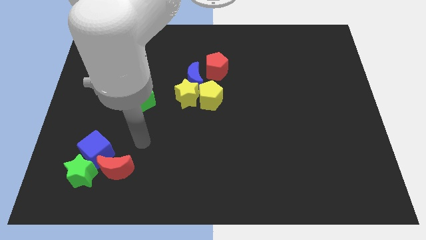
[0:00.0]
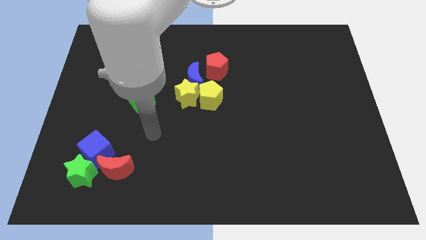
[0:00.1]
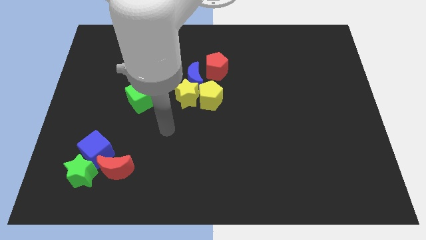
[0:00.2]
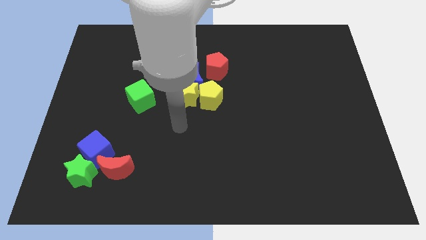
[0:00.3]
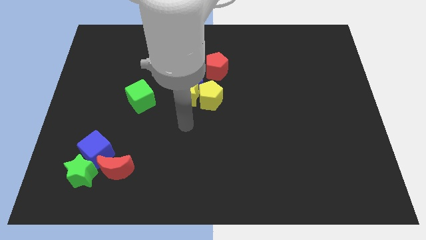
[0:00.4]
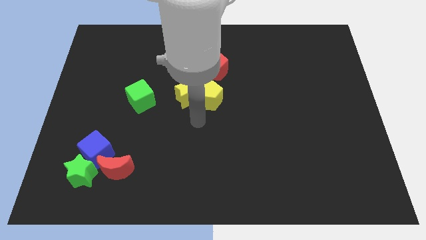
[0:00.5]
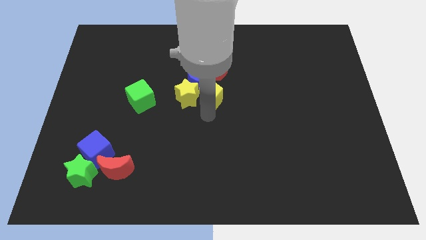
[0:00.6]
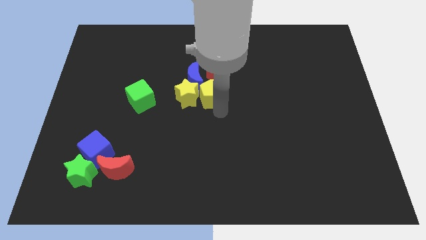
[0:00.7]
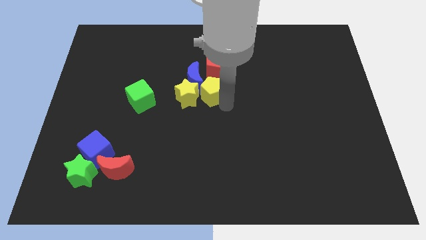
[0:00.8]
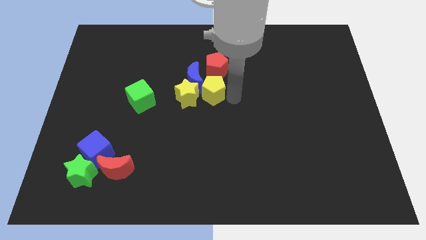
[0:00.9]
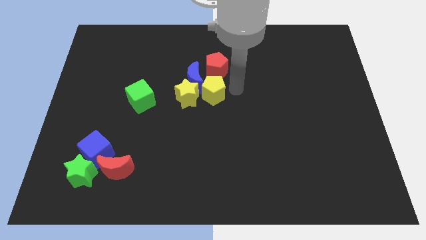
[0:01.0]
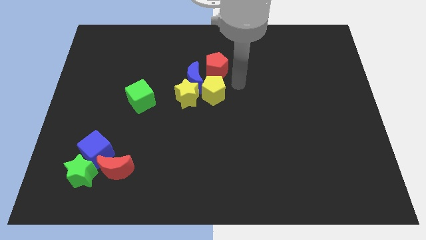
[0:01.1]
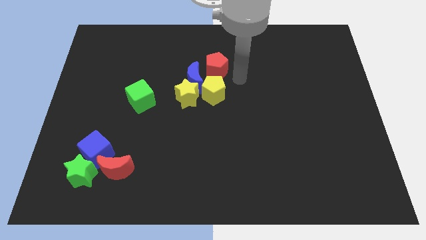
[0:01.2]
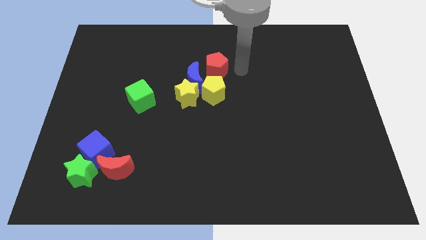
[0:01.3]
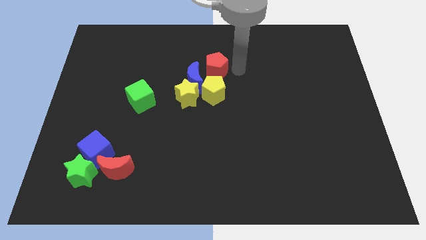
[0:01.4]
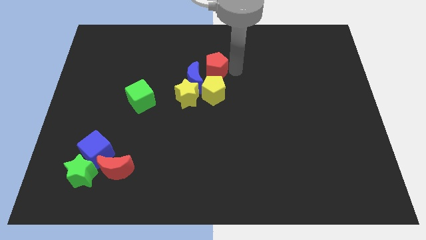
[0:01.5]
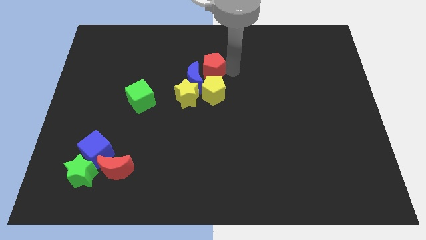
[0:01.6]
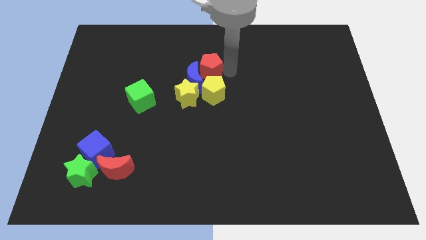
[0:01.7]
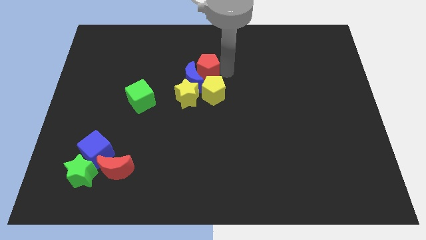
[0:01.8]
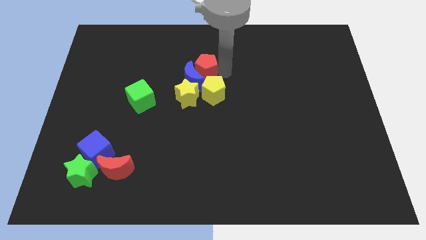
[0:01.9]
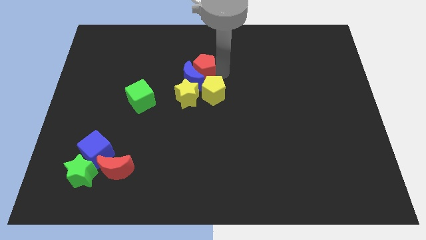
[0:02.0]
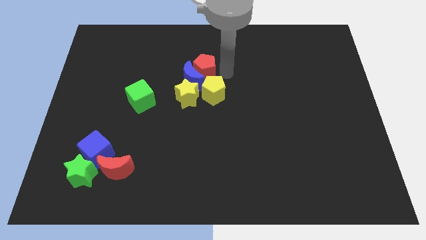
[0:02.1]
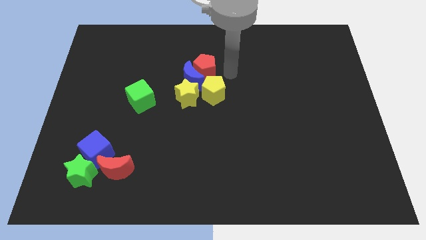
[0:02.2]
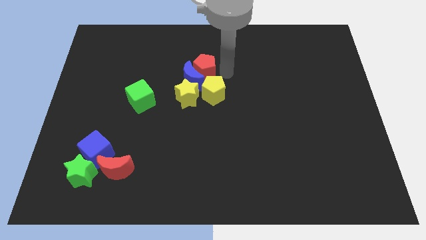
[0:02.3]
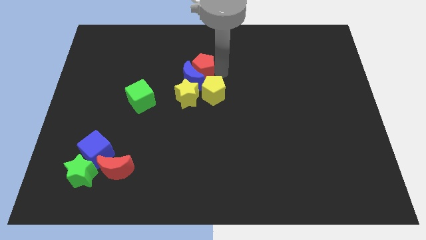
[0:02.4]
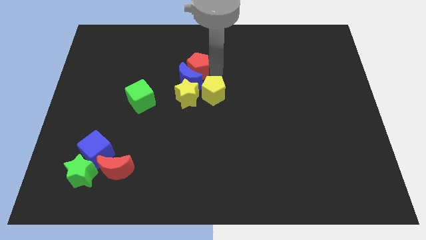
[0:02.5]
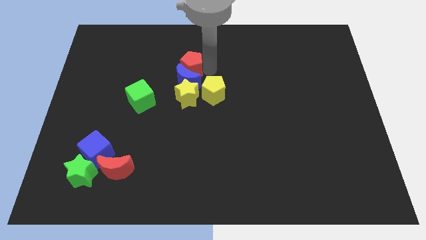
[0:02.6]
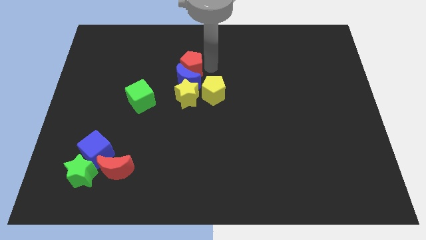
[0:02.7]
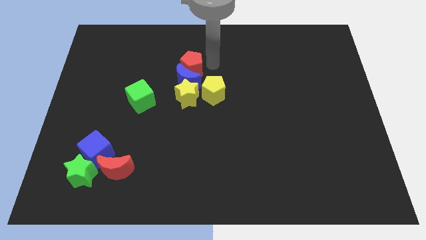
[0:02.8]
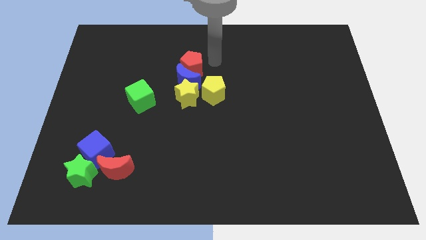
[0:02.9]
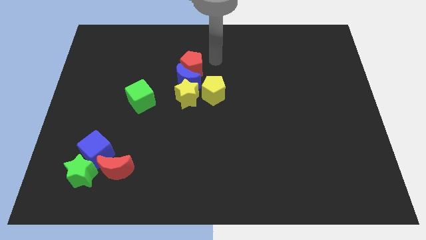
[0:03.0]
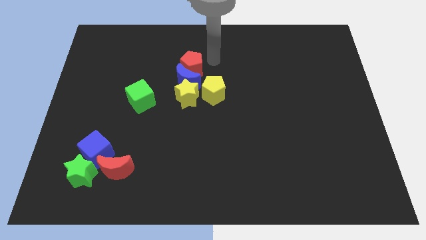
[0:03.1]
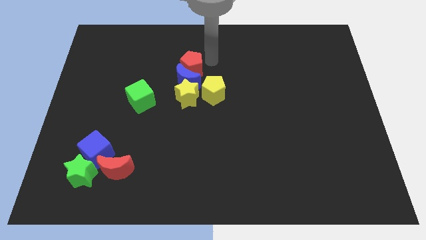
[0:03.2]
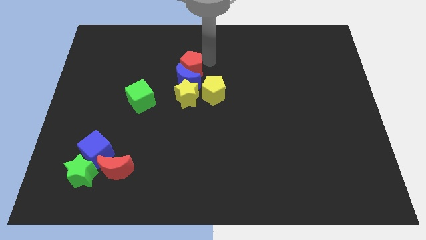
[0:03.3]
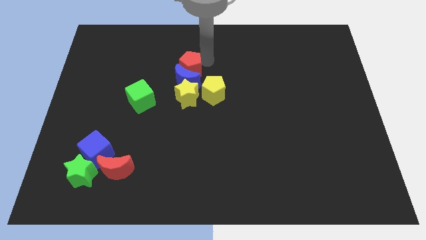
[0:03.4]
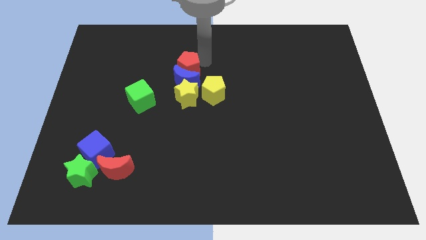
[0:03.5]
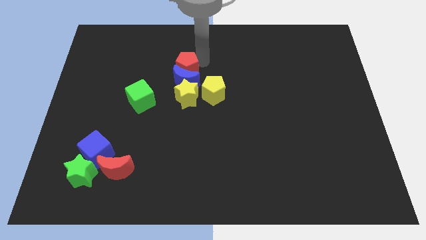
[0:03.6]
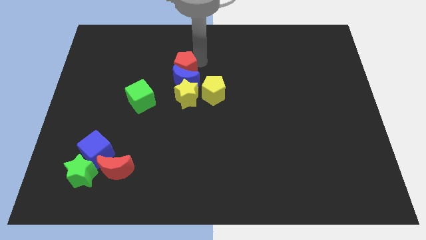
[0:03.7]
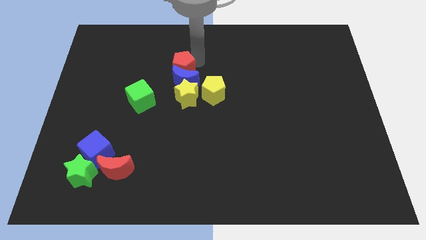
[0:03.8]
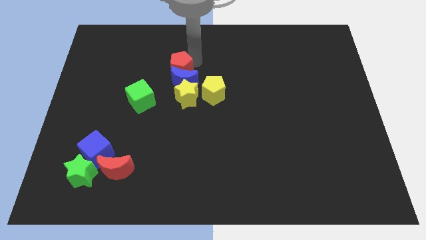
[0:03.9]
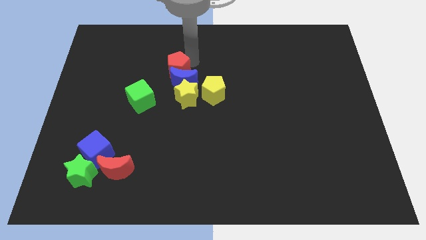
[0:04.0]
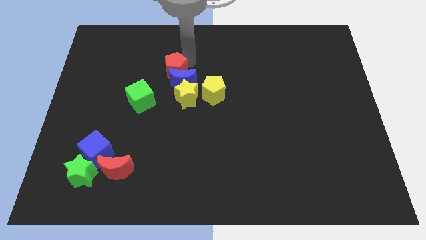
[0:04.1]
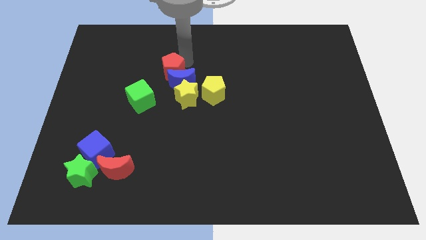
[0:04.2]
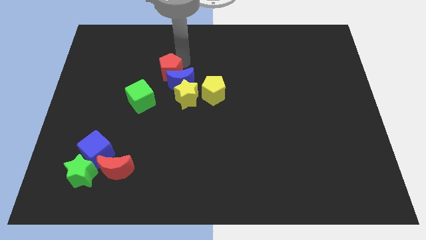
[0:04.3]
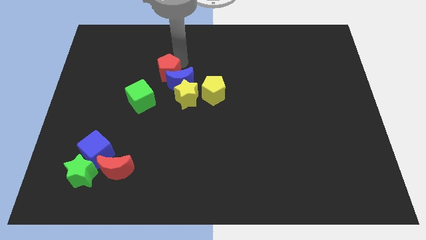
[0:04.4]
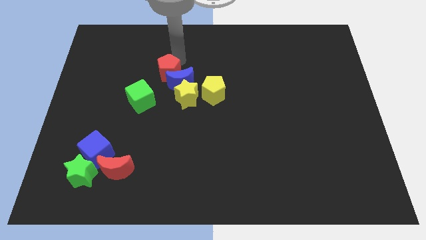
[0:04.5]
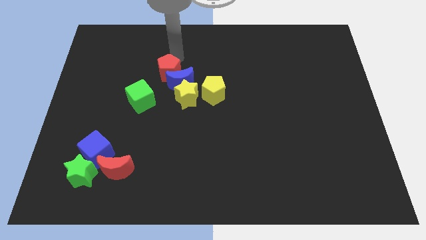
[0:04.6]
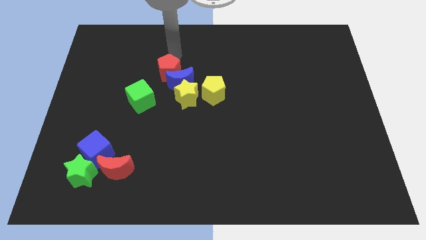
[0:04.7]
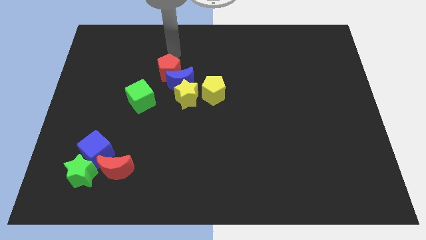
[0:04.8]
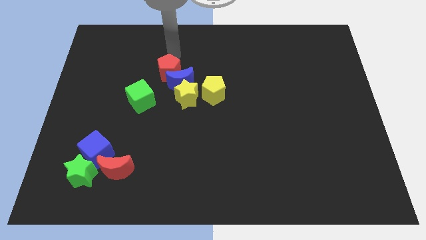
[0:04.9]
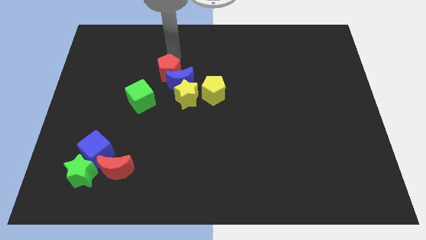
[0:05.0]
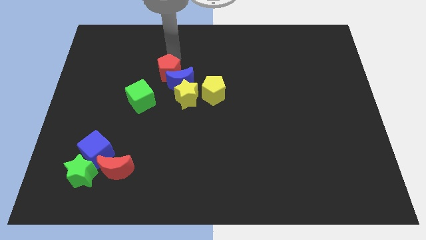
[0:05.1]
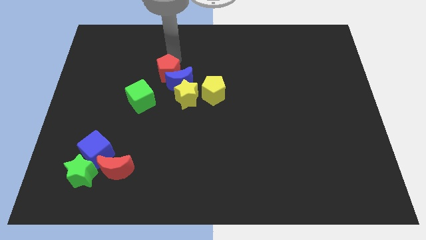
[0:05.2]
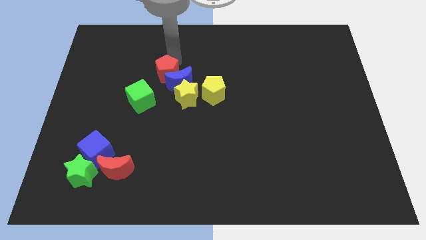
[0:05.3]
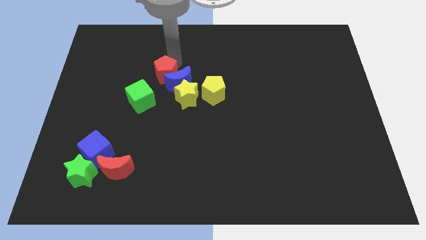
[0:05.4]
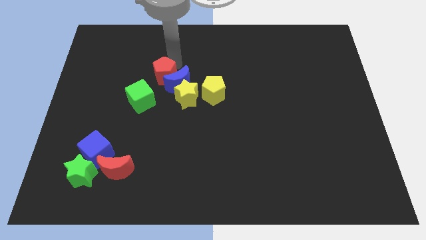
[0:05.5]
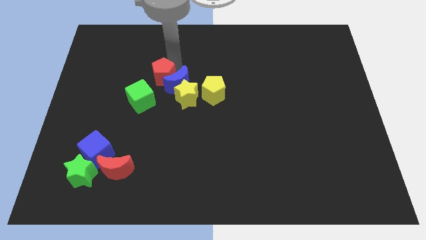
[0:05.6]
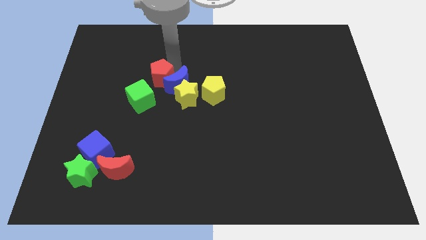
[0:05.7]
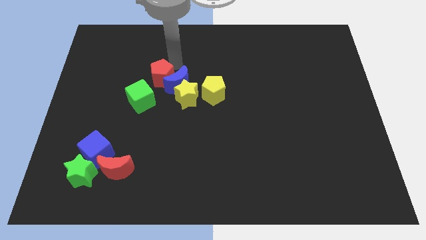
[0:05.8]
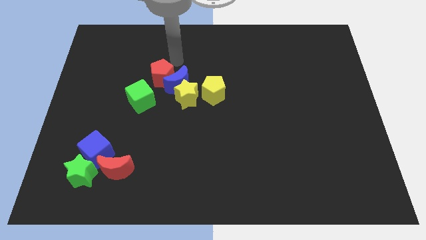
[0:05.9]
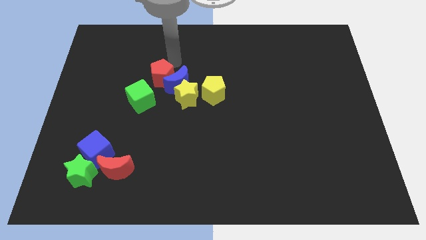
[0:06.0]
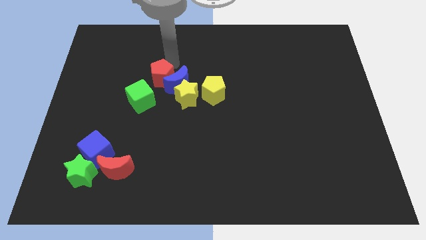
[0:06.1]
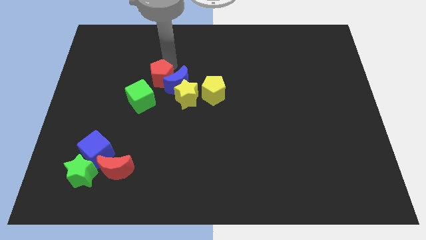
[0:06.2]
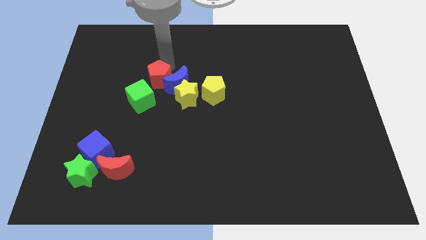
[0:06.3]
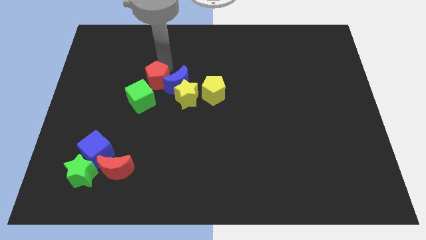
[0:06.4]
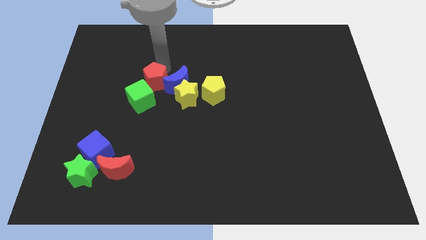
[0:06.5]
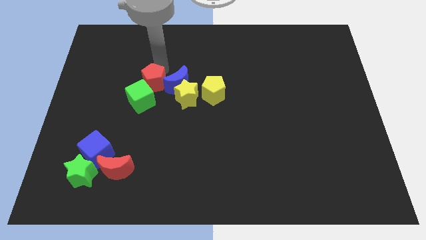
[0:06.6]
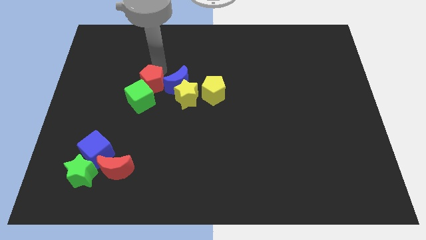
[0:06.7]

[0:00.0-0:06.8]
slide the red pentagon to the green cube
